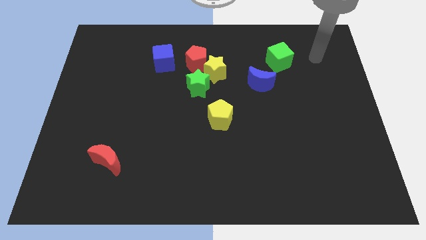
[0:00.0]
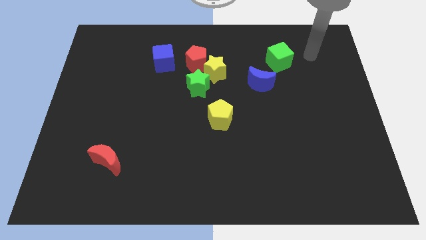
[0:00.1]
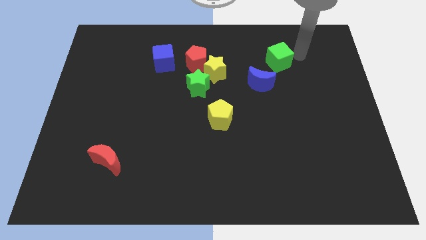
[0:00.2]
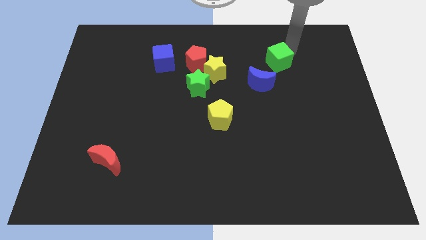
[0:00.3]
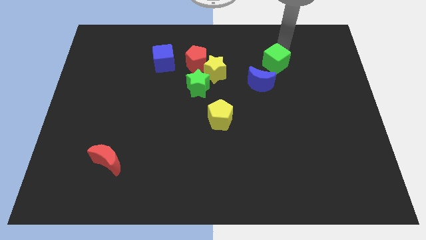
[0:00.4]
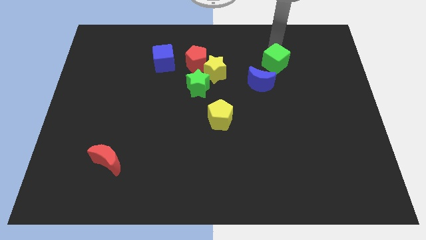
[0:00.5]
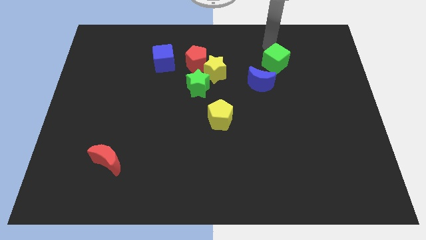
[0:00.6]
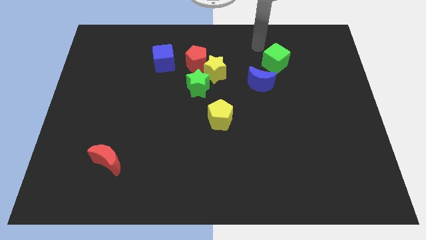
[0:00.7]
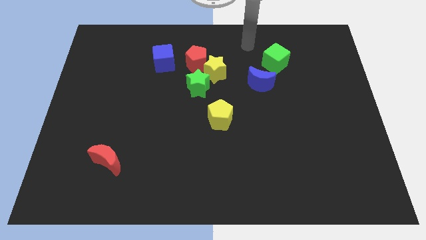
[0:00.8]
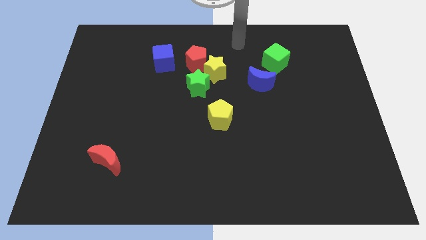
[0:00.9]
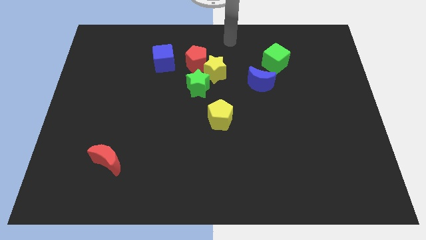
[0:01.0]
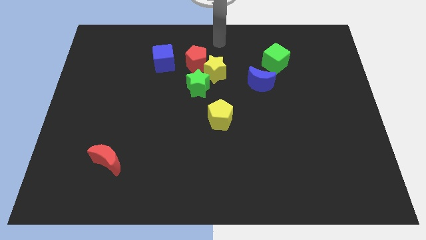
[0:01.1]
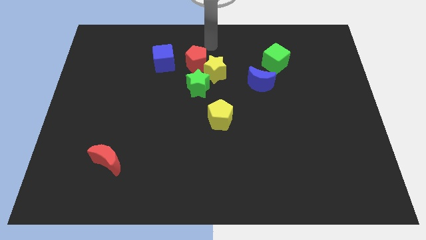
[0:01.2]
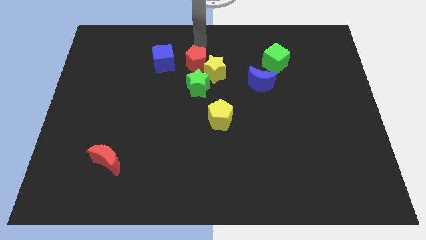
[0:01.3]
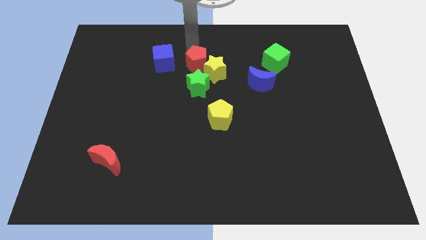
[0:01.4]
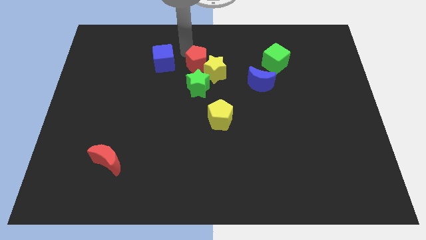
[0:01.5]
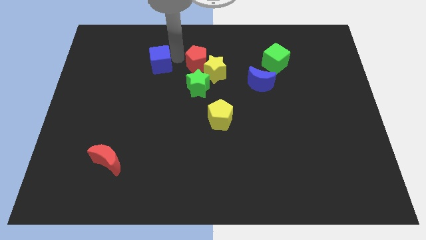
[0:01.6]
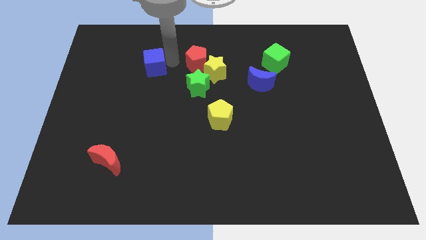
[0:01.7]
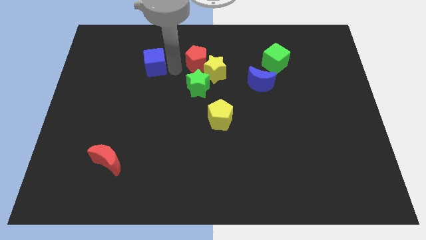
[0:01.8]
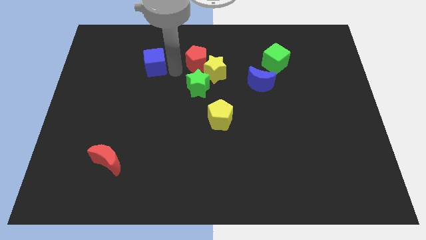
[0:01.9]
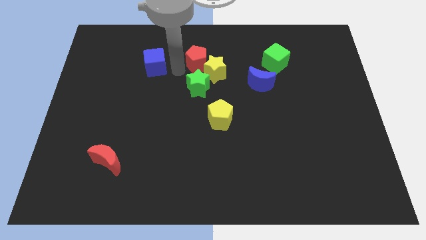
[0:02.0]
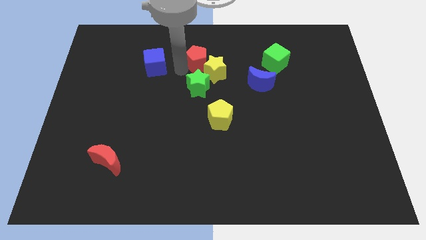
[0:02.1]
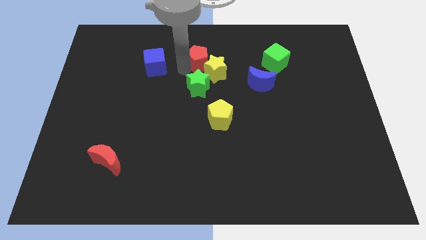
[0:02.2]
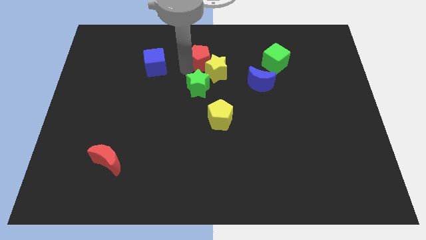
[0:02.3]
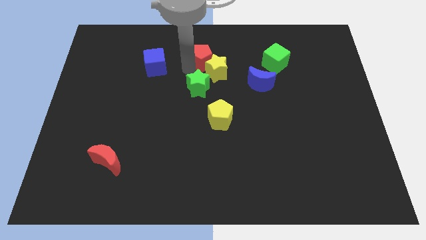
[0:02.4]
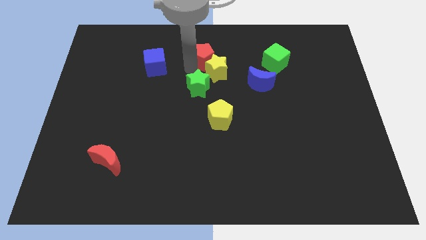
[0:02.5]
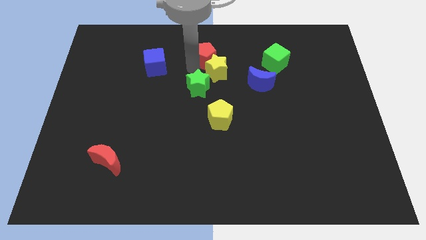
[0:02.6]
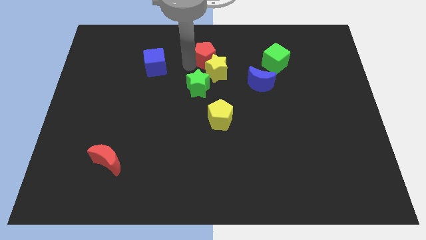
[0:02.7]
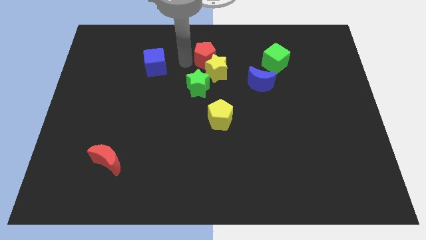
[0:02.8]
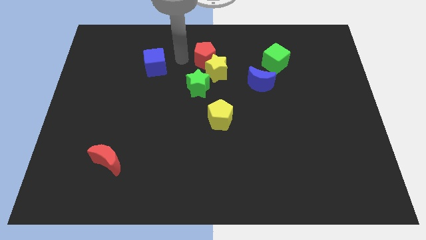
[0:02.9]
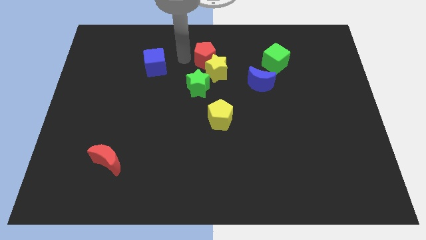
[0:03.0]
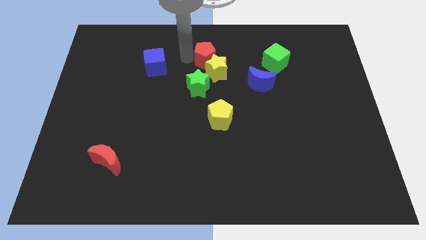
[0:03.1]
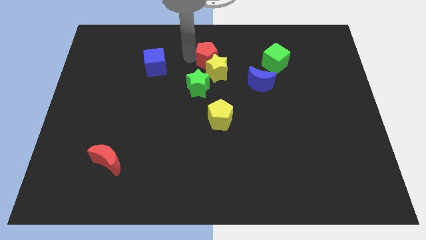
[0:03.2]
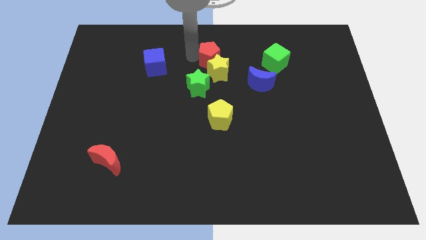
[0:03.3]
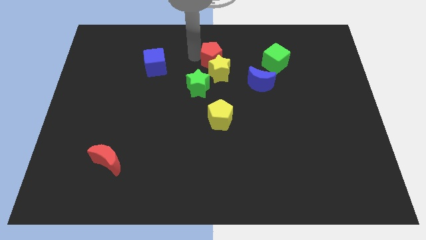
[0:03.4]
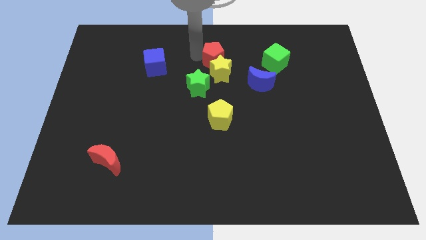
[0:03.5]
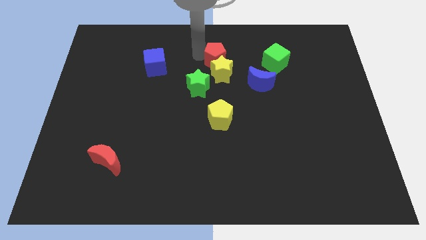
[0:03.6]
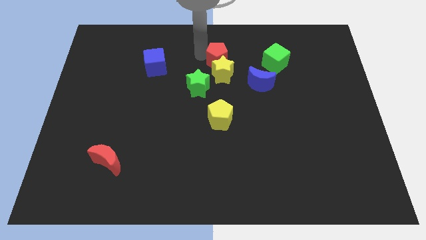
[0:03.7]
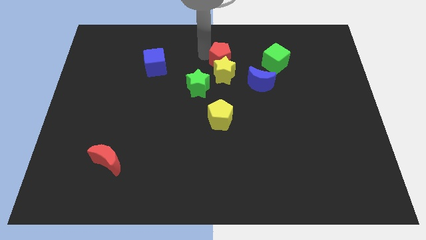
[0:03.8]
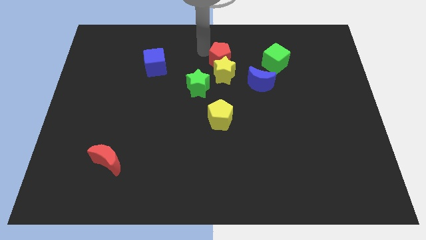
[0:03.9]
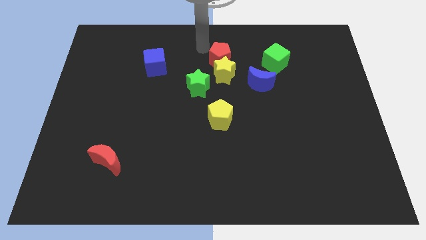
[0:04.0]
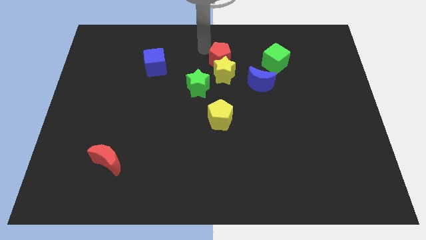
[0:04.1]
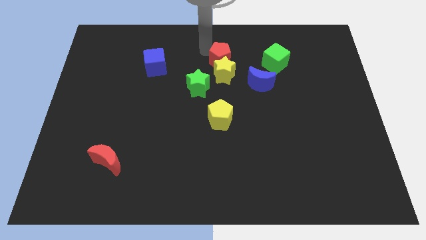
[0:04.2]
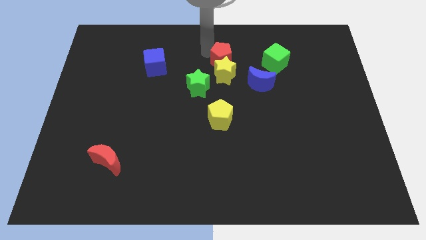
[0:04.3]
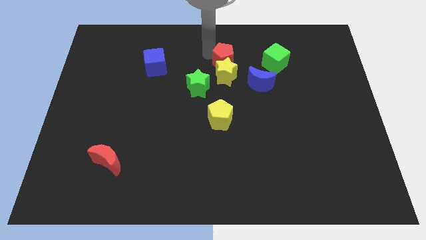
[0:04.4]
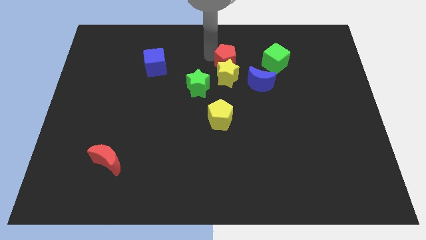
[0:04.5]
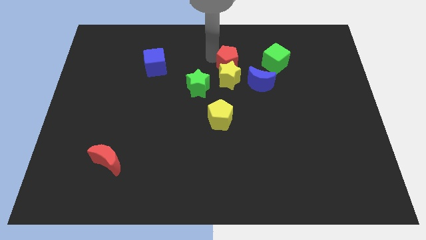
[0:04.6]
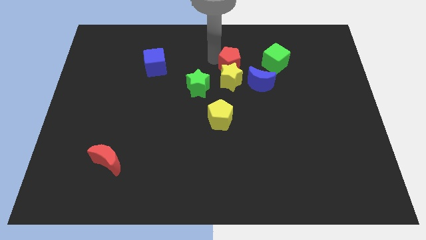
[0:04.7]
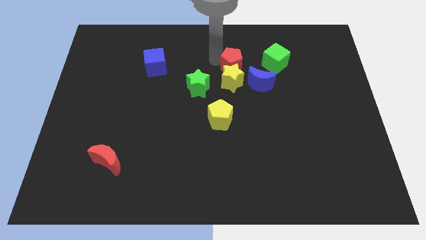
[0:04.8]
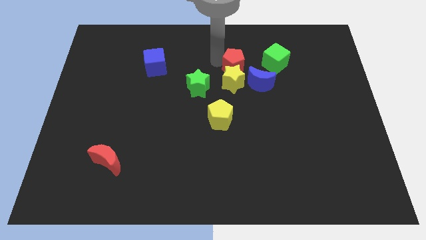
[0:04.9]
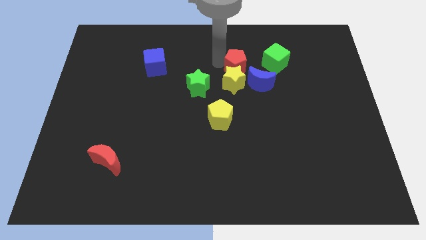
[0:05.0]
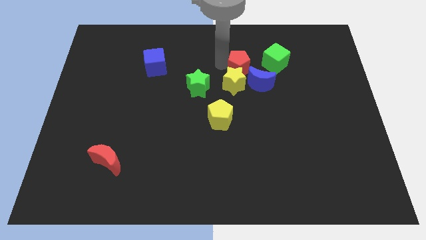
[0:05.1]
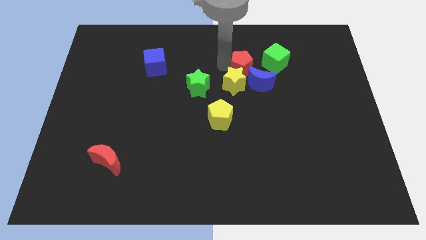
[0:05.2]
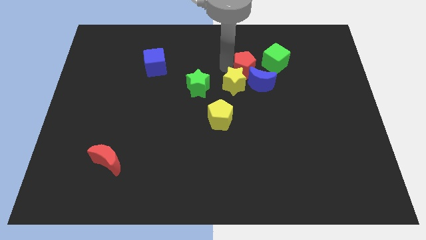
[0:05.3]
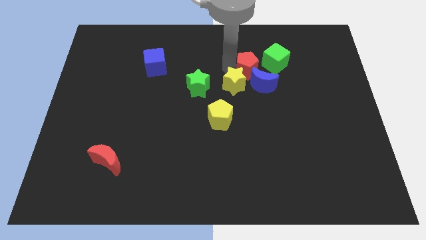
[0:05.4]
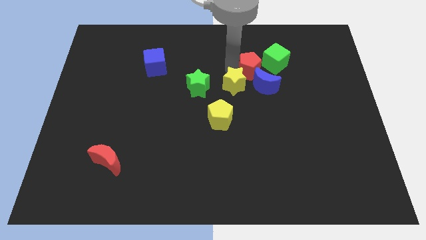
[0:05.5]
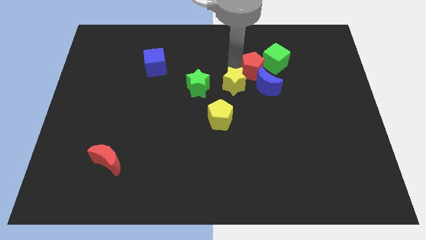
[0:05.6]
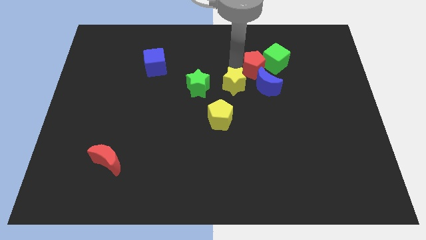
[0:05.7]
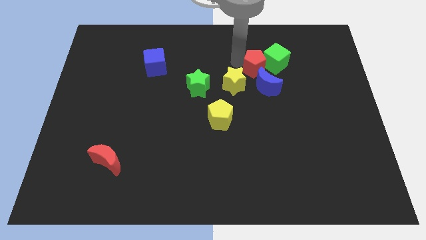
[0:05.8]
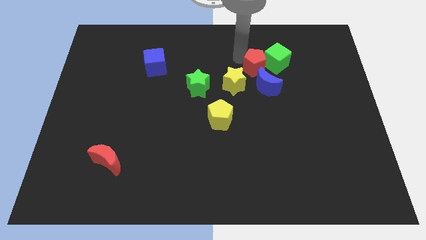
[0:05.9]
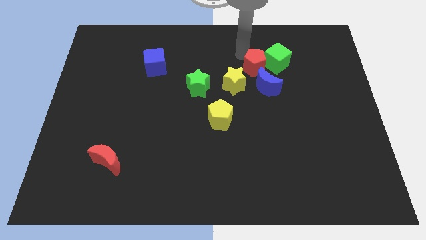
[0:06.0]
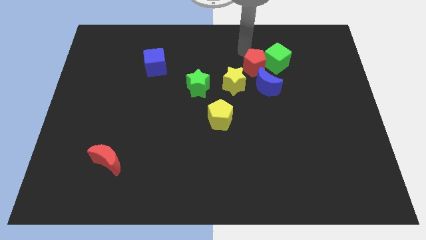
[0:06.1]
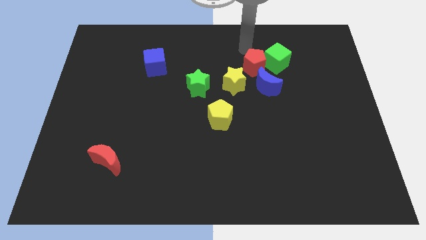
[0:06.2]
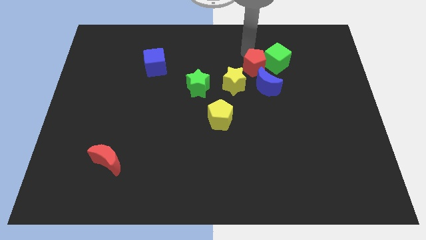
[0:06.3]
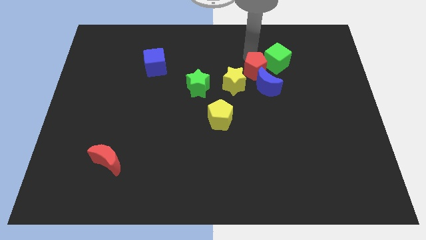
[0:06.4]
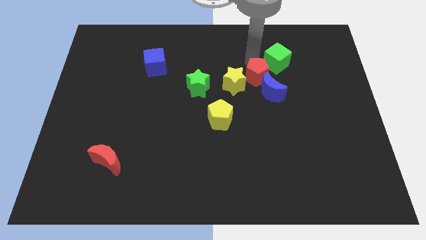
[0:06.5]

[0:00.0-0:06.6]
put the red pentagon to the blue moon
